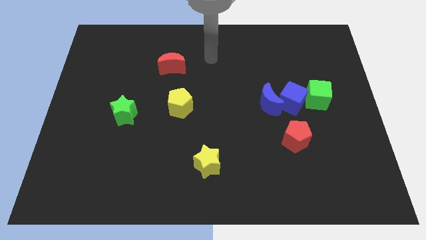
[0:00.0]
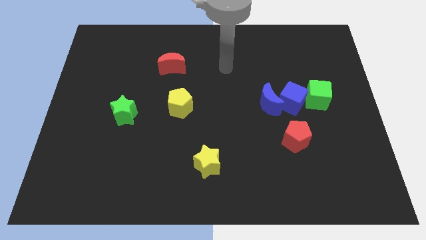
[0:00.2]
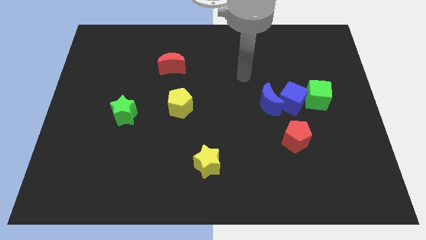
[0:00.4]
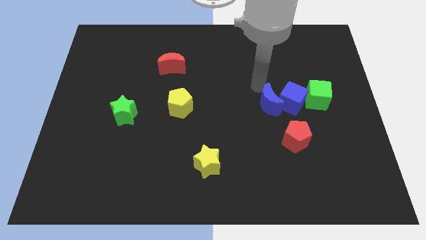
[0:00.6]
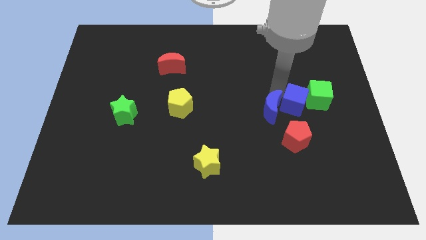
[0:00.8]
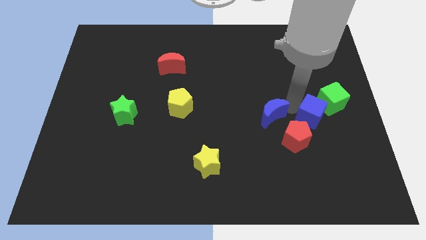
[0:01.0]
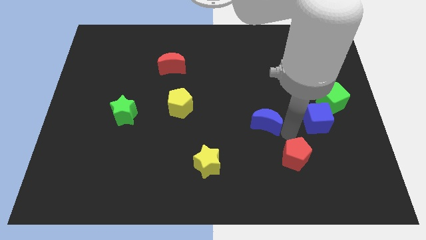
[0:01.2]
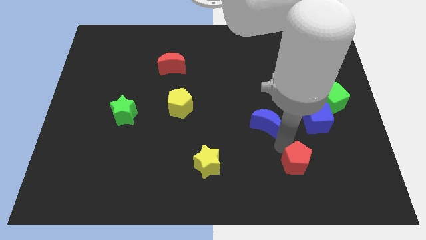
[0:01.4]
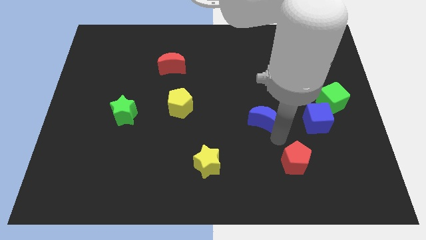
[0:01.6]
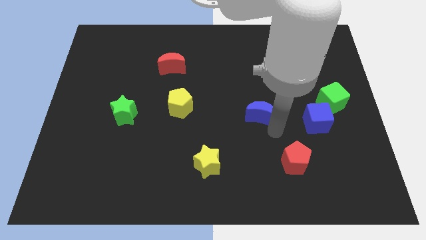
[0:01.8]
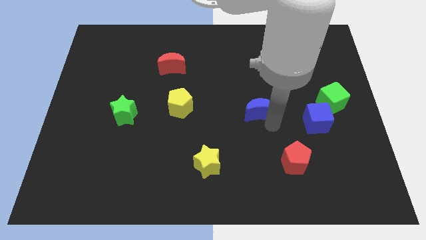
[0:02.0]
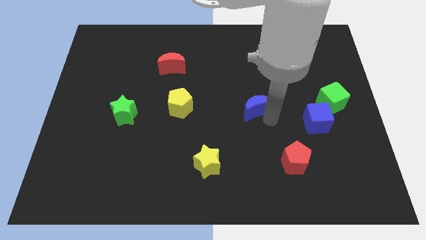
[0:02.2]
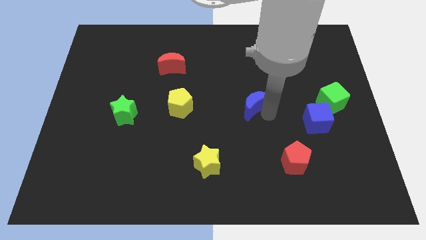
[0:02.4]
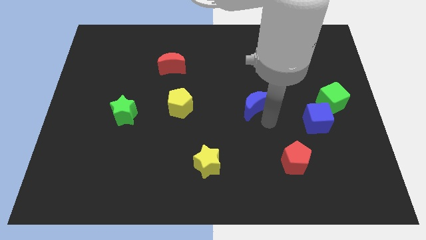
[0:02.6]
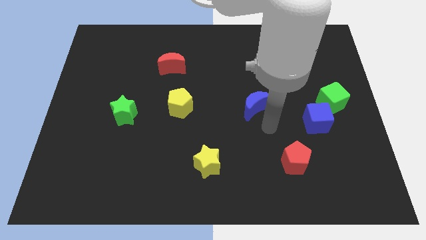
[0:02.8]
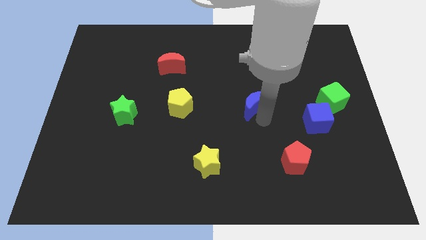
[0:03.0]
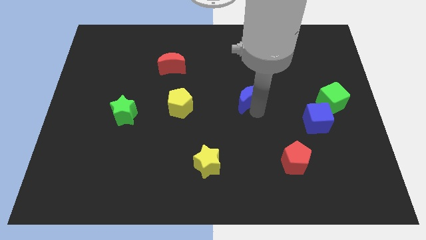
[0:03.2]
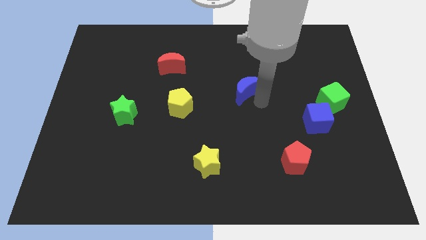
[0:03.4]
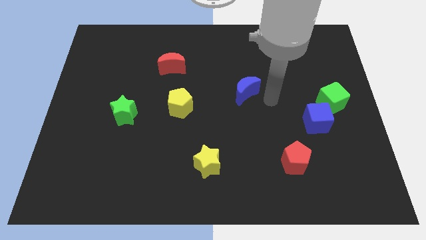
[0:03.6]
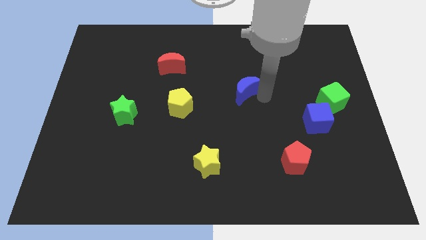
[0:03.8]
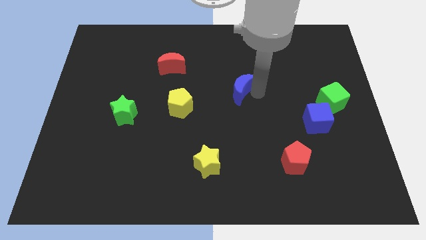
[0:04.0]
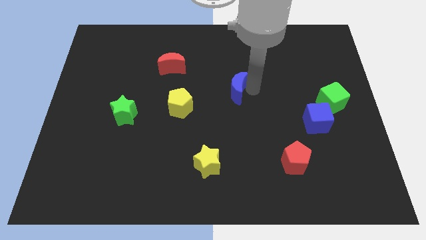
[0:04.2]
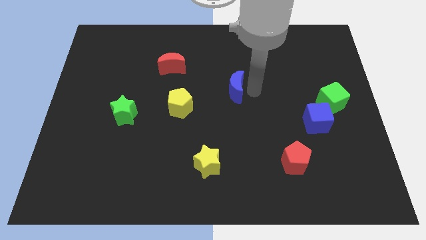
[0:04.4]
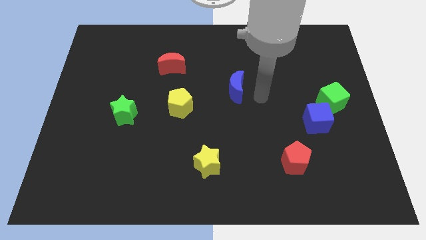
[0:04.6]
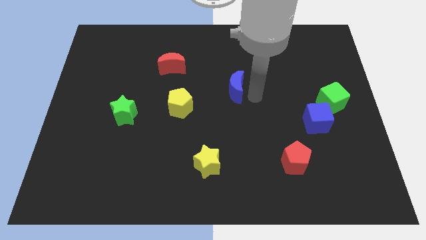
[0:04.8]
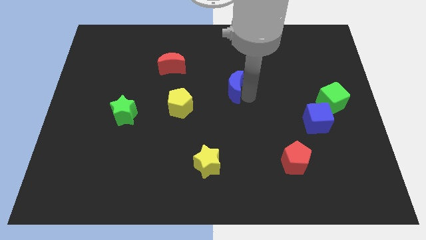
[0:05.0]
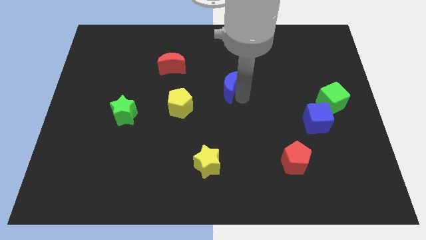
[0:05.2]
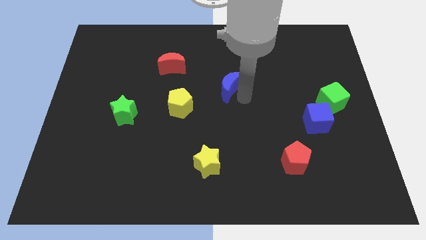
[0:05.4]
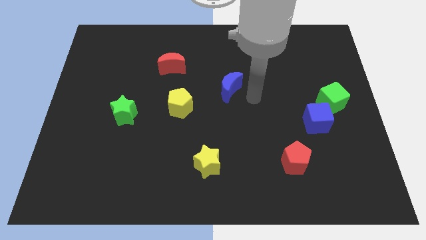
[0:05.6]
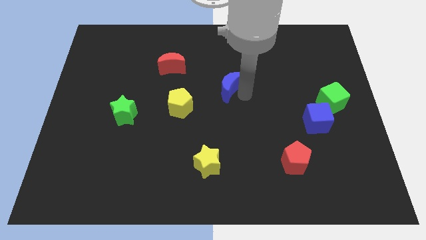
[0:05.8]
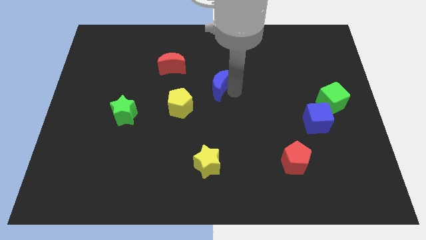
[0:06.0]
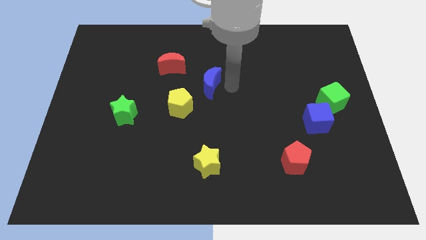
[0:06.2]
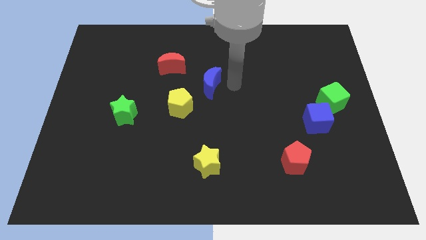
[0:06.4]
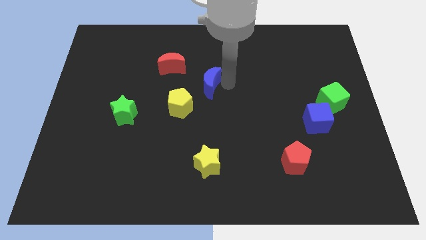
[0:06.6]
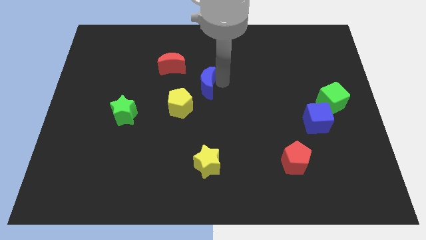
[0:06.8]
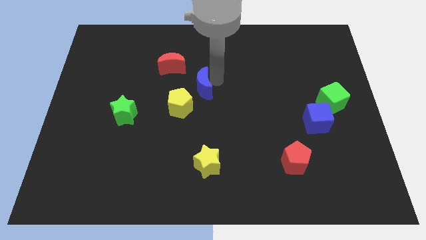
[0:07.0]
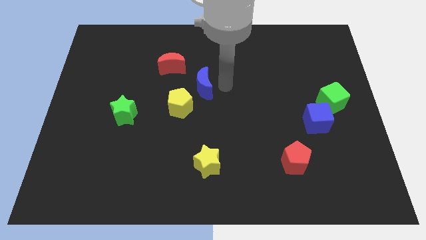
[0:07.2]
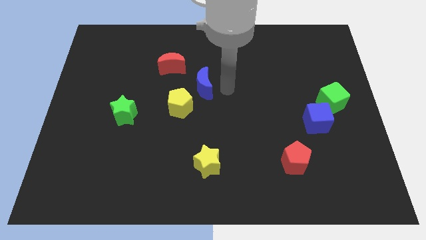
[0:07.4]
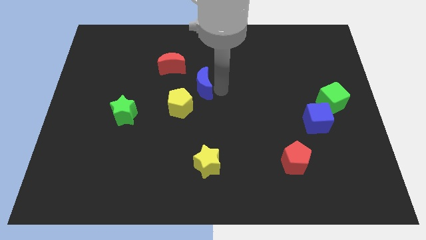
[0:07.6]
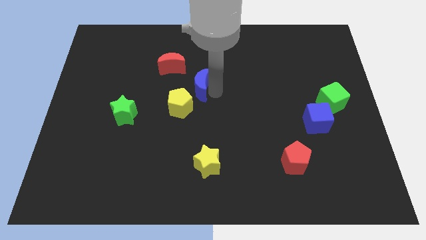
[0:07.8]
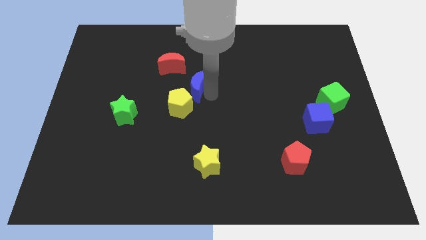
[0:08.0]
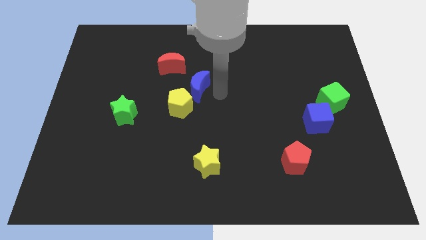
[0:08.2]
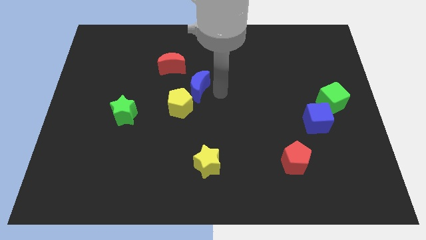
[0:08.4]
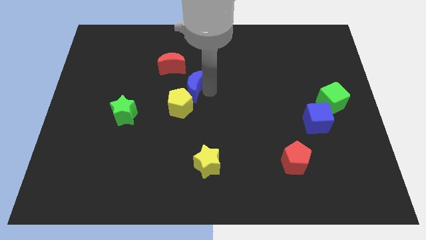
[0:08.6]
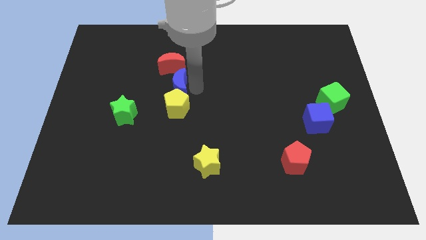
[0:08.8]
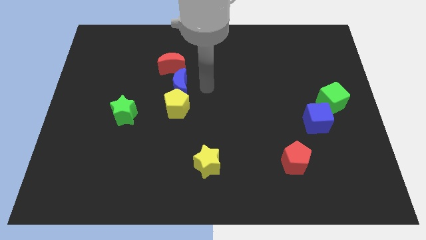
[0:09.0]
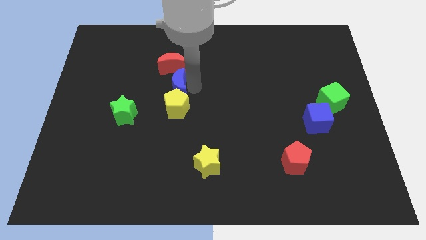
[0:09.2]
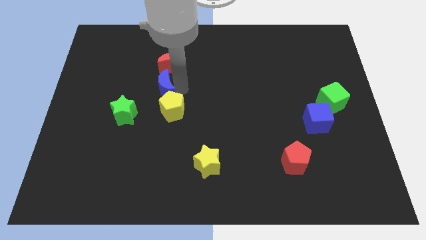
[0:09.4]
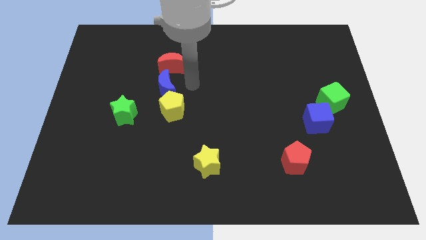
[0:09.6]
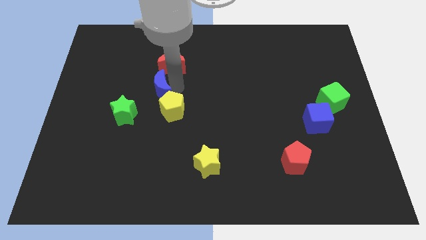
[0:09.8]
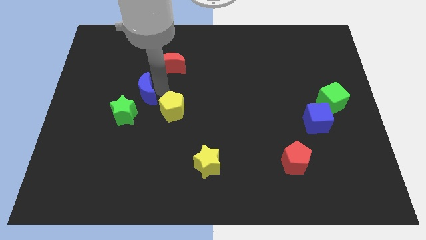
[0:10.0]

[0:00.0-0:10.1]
slide the blue moon to the left of the yellow pentagon

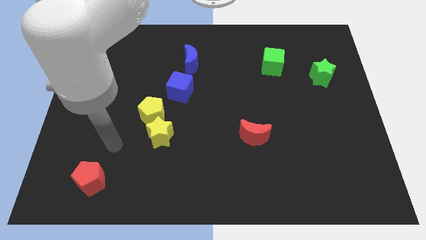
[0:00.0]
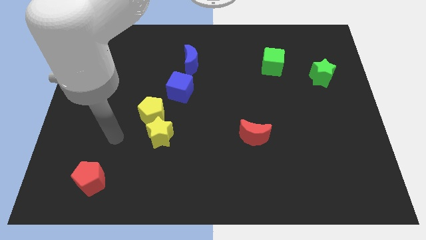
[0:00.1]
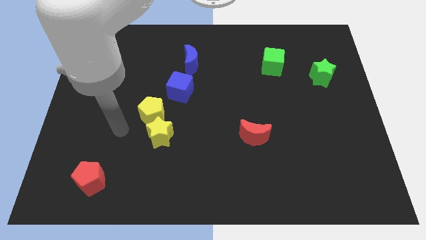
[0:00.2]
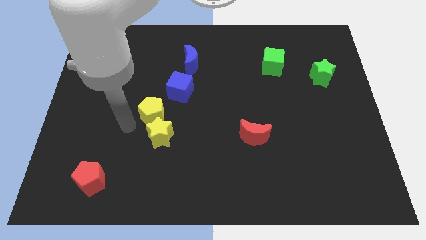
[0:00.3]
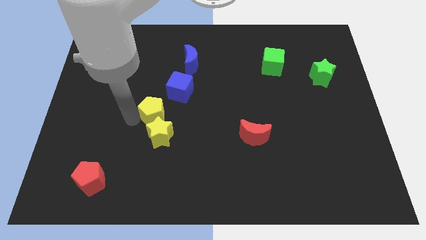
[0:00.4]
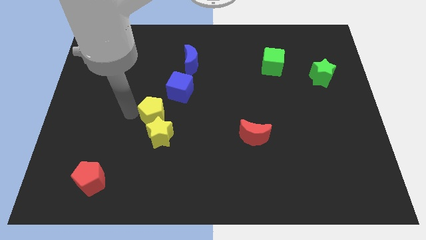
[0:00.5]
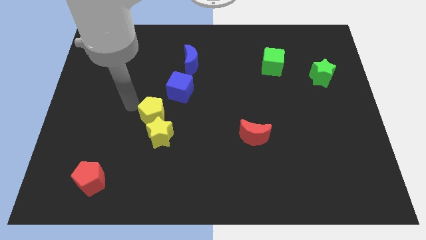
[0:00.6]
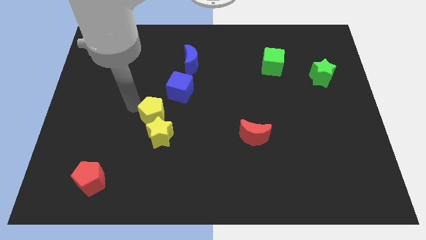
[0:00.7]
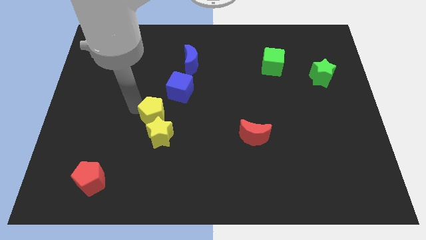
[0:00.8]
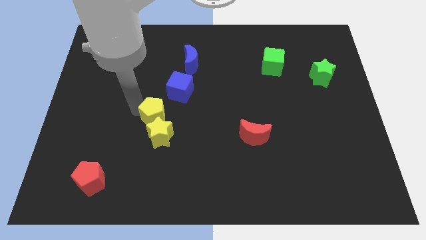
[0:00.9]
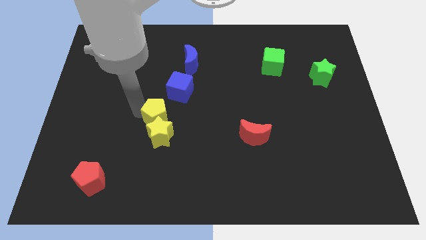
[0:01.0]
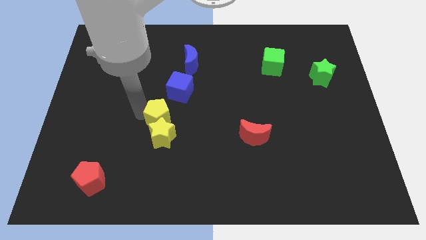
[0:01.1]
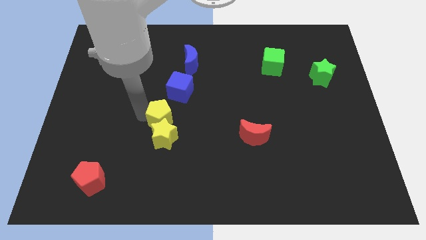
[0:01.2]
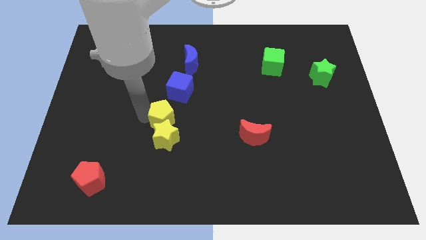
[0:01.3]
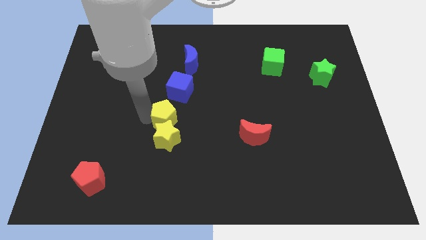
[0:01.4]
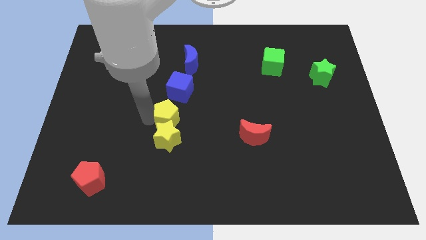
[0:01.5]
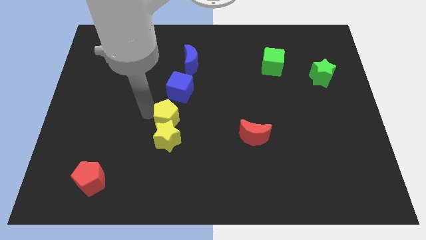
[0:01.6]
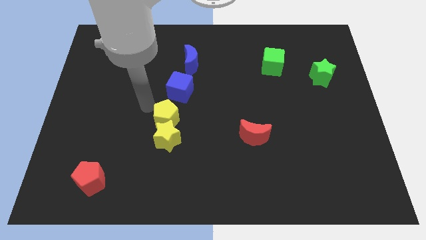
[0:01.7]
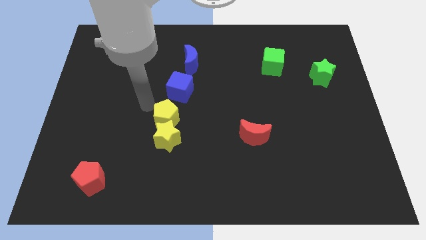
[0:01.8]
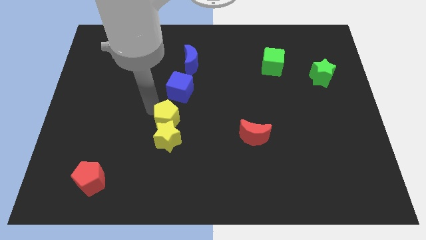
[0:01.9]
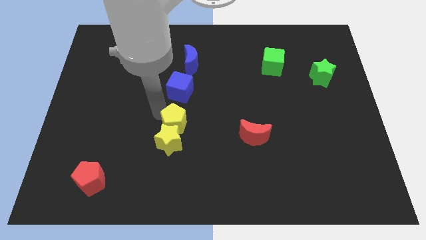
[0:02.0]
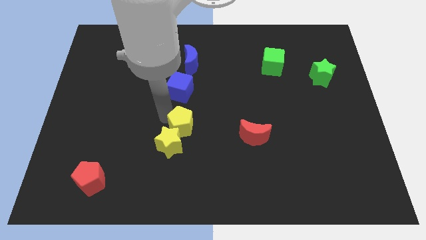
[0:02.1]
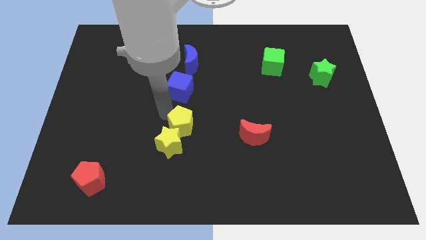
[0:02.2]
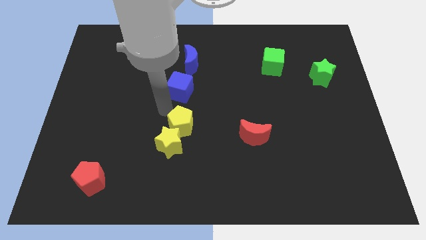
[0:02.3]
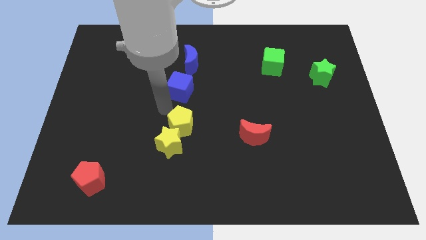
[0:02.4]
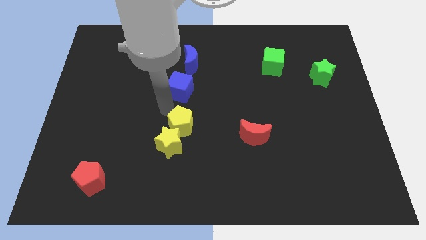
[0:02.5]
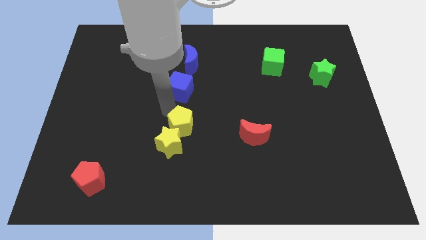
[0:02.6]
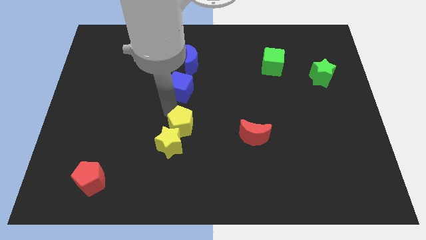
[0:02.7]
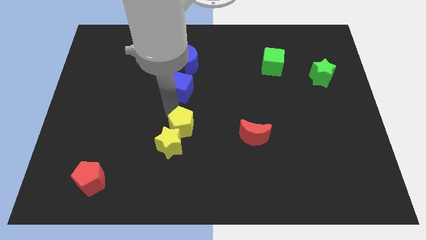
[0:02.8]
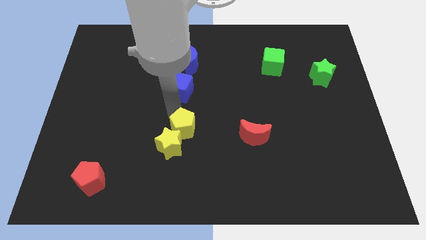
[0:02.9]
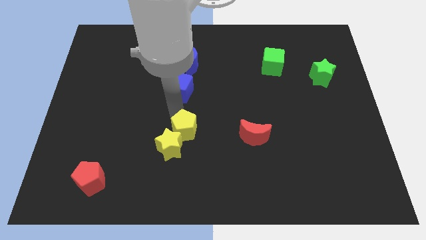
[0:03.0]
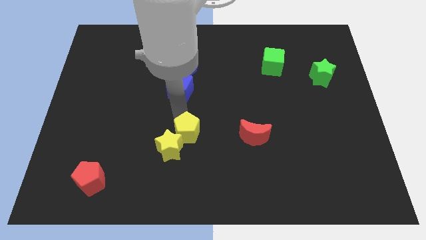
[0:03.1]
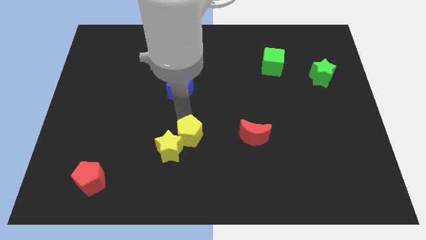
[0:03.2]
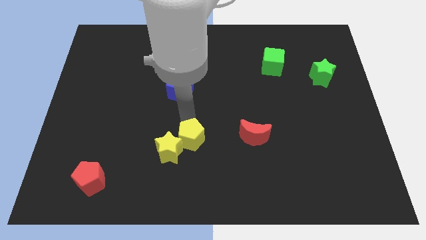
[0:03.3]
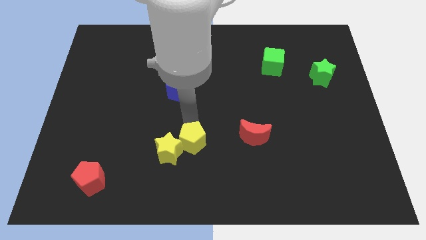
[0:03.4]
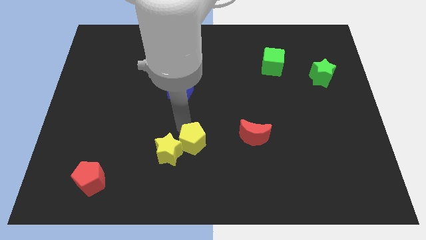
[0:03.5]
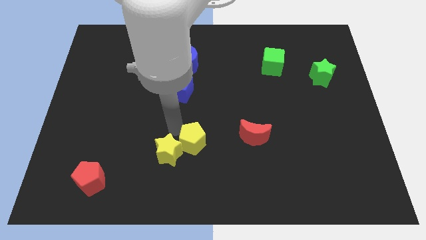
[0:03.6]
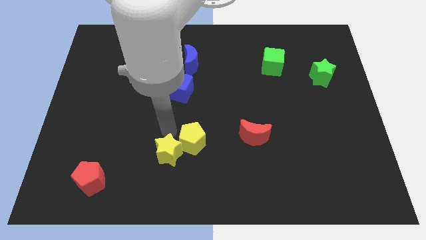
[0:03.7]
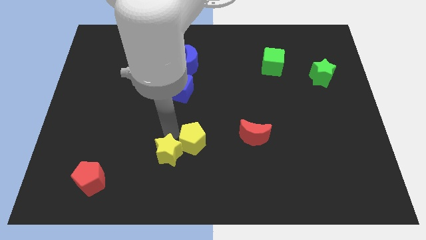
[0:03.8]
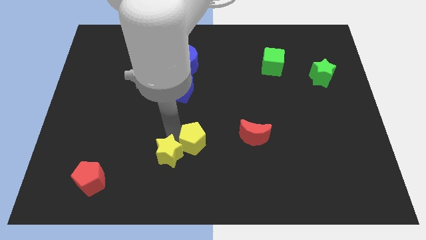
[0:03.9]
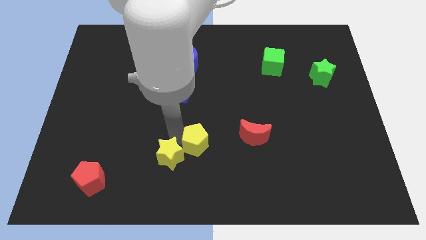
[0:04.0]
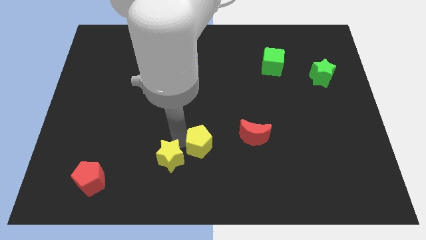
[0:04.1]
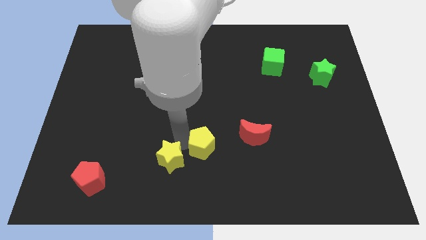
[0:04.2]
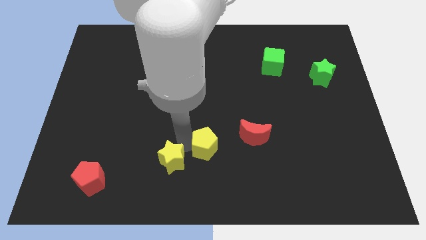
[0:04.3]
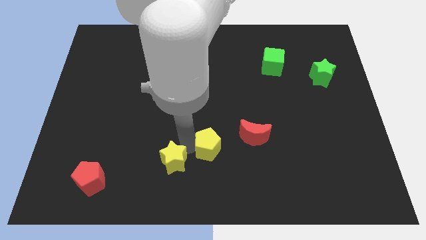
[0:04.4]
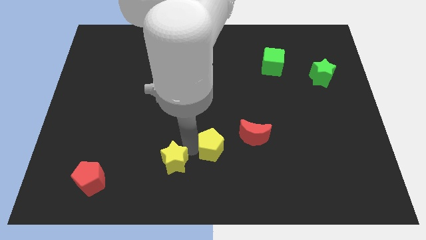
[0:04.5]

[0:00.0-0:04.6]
push the yellow pentagon to the bottom left of the red moon
